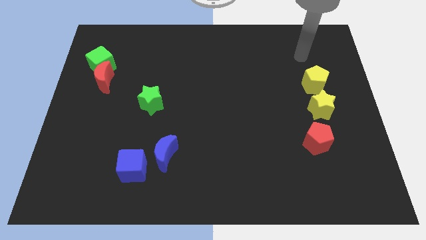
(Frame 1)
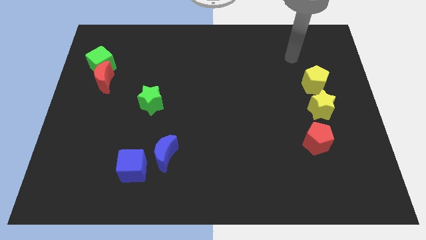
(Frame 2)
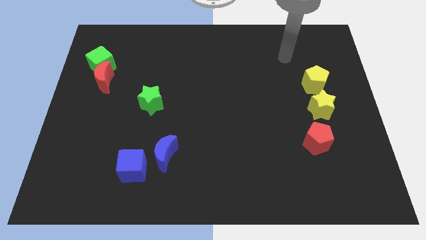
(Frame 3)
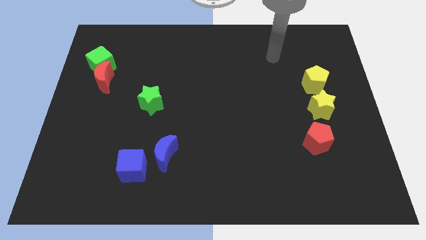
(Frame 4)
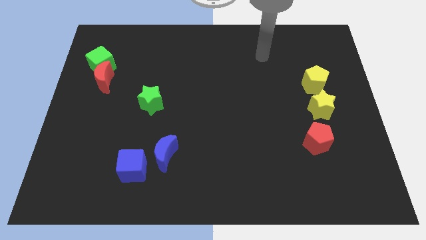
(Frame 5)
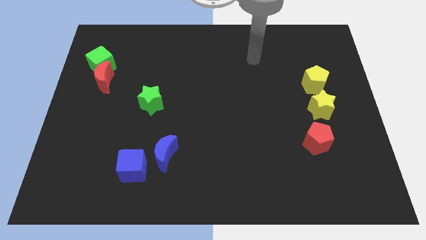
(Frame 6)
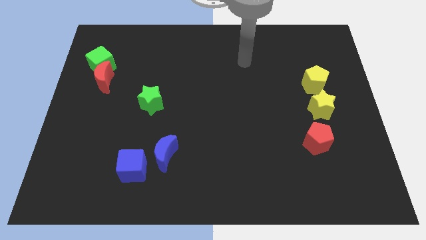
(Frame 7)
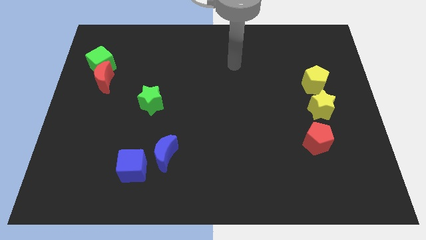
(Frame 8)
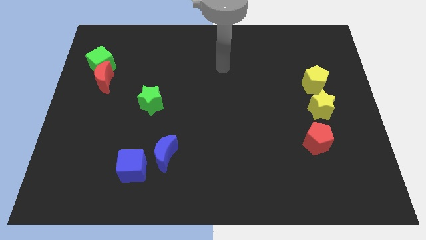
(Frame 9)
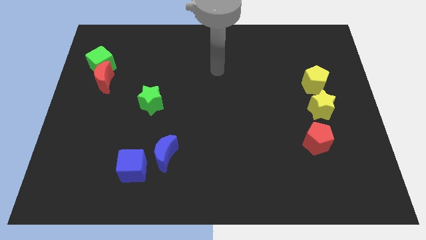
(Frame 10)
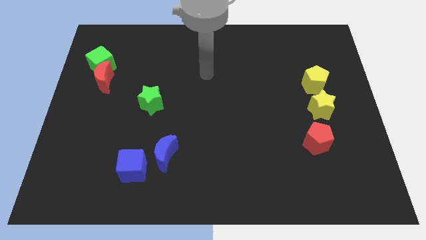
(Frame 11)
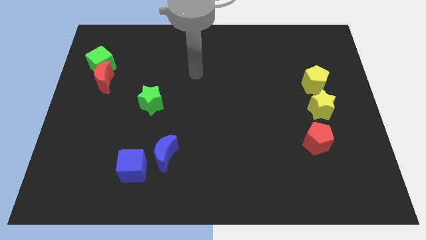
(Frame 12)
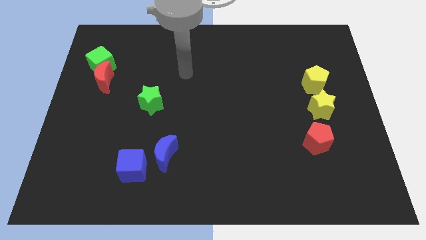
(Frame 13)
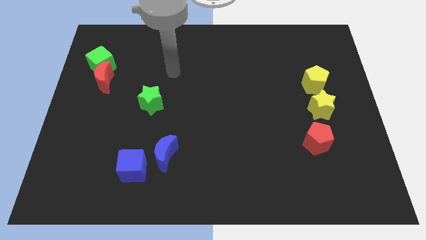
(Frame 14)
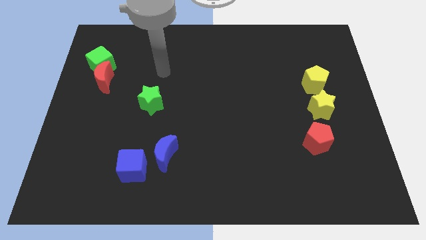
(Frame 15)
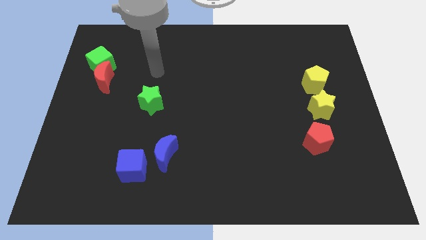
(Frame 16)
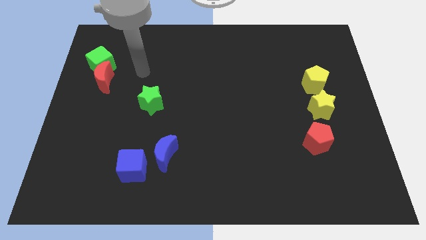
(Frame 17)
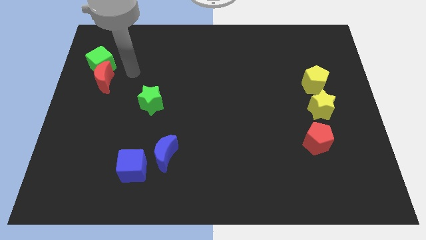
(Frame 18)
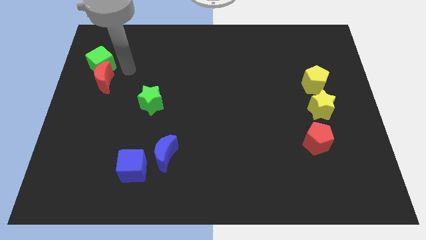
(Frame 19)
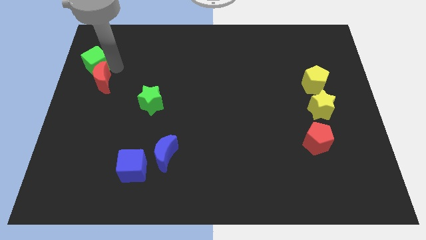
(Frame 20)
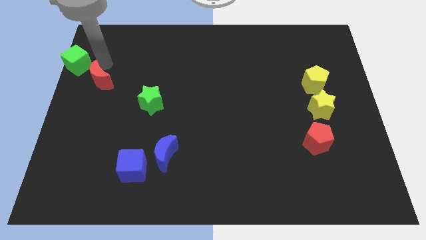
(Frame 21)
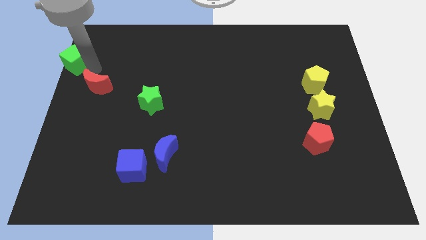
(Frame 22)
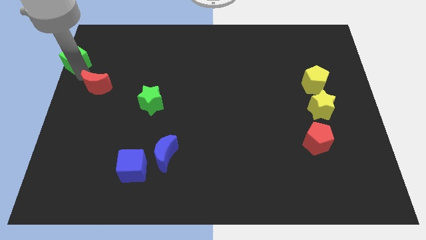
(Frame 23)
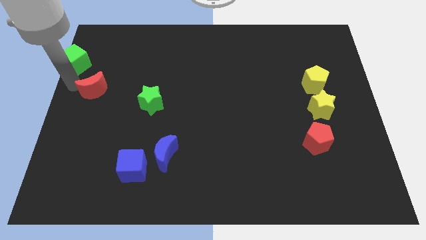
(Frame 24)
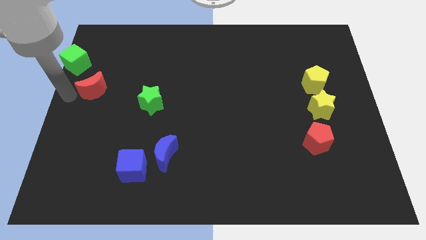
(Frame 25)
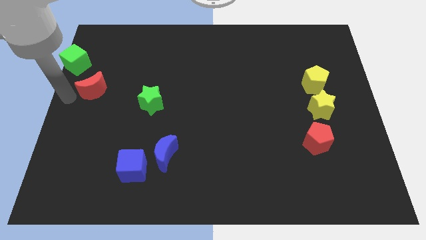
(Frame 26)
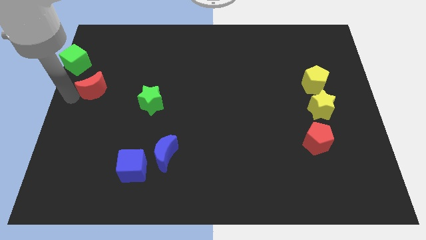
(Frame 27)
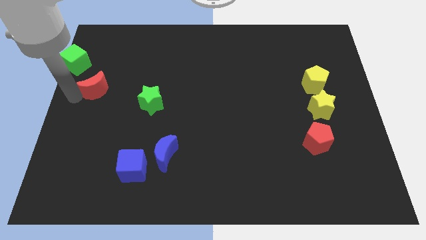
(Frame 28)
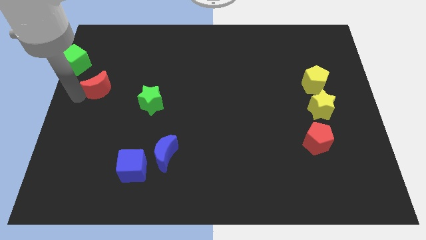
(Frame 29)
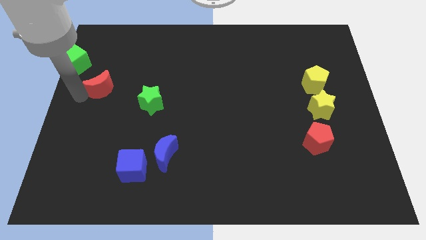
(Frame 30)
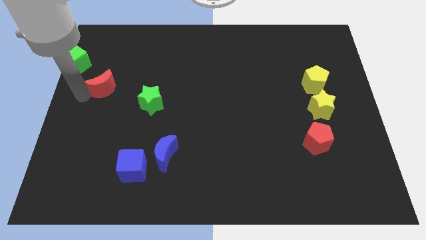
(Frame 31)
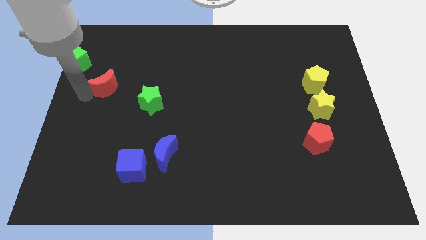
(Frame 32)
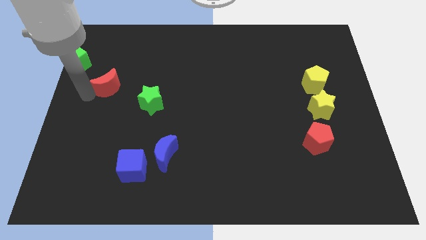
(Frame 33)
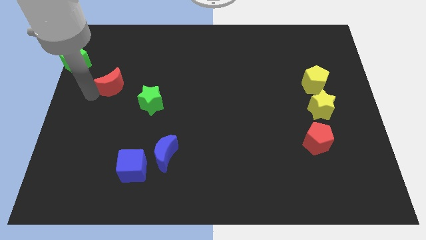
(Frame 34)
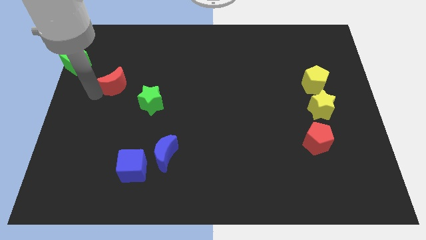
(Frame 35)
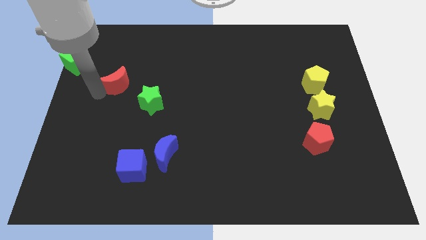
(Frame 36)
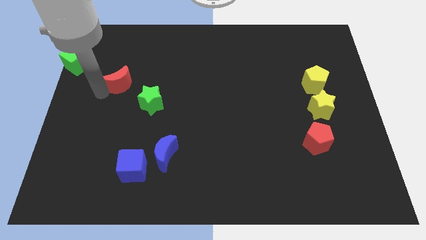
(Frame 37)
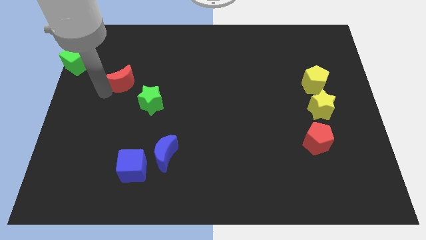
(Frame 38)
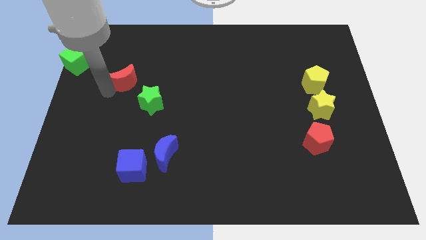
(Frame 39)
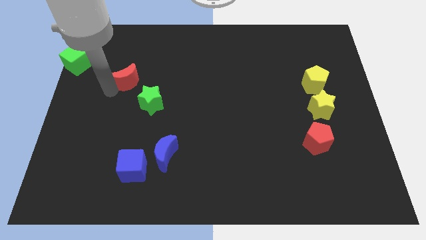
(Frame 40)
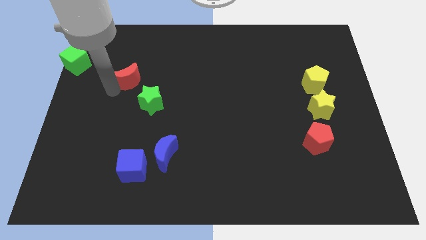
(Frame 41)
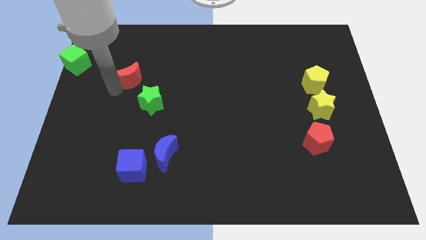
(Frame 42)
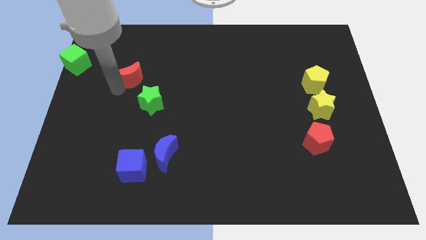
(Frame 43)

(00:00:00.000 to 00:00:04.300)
slide the red moon right somewhat

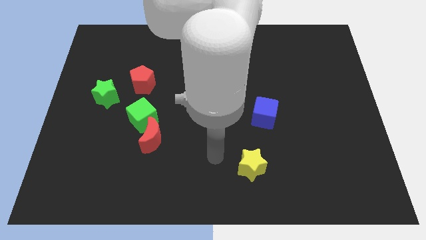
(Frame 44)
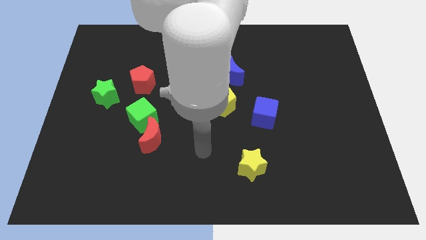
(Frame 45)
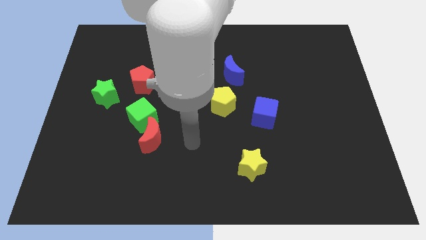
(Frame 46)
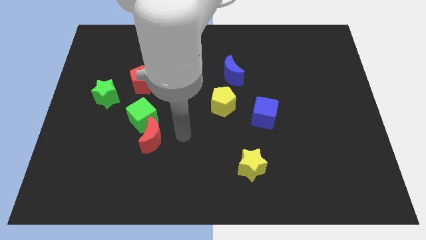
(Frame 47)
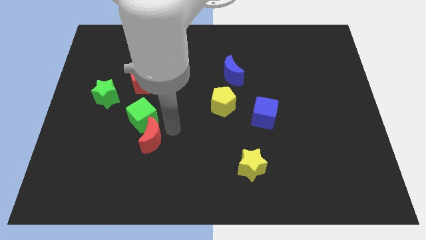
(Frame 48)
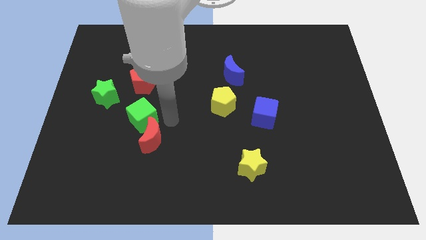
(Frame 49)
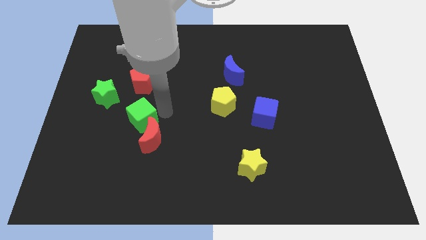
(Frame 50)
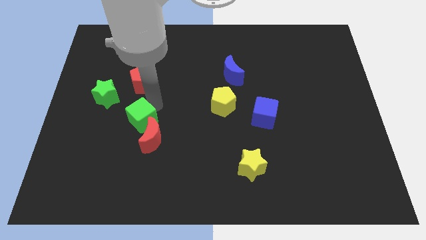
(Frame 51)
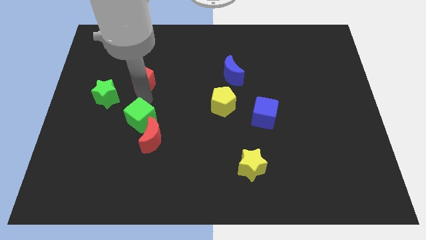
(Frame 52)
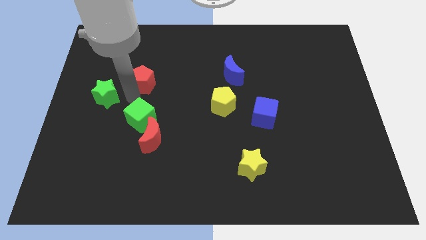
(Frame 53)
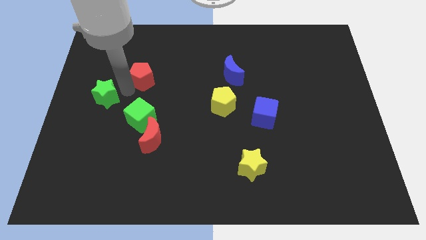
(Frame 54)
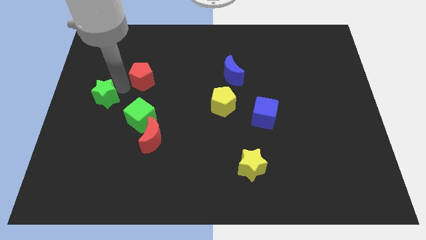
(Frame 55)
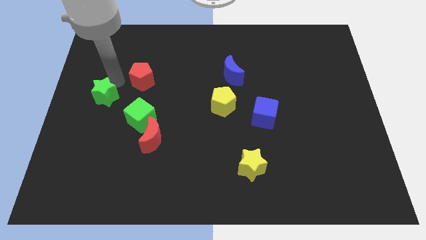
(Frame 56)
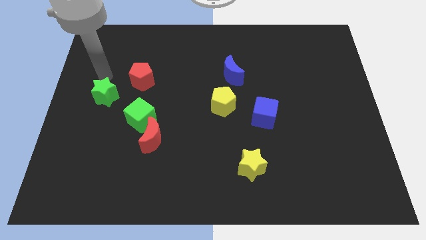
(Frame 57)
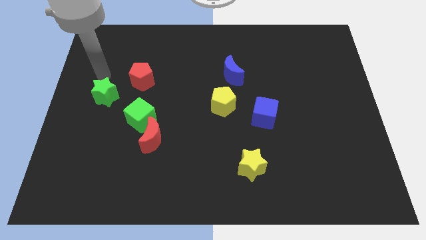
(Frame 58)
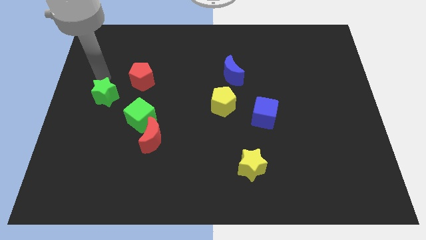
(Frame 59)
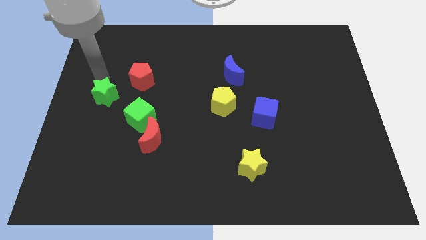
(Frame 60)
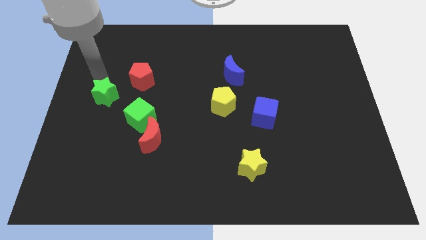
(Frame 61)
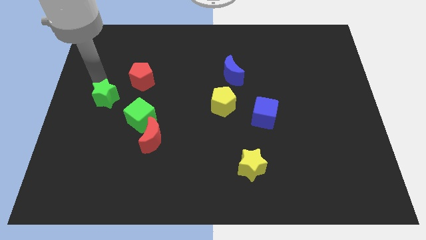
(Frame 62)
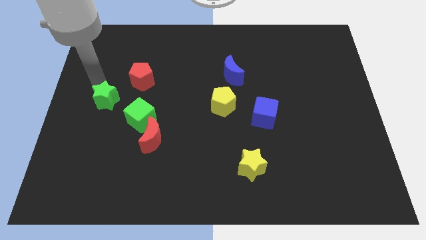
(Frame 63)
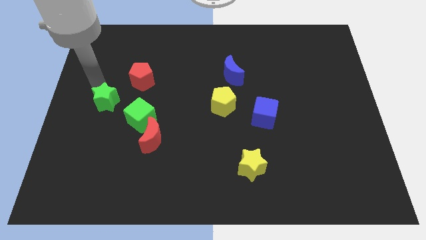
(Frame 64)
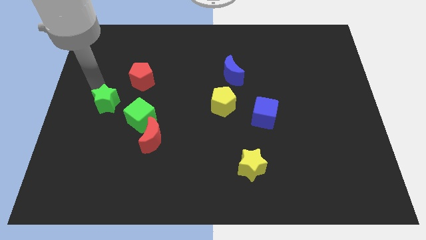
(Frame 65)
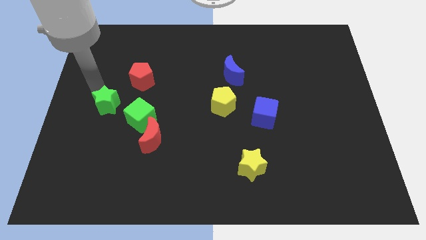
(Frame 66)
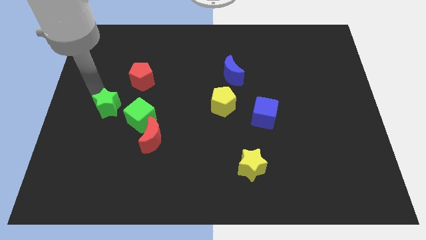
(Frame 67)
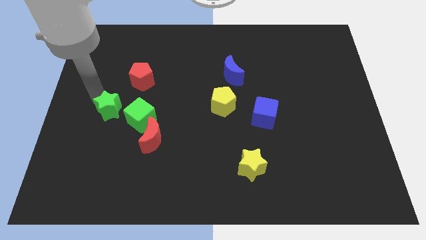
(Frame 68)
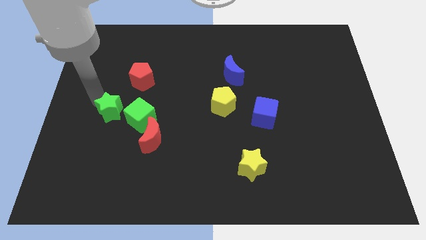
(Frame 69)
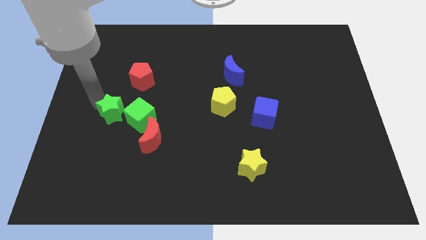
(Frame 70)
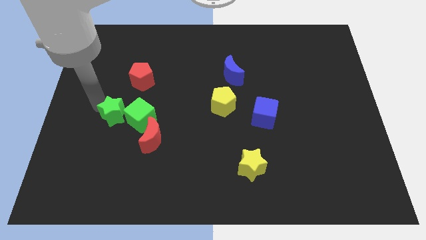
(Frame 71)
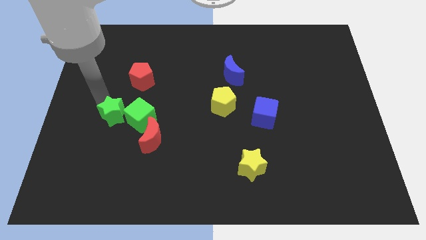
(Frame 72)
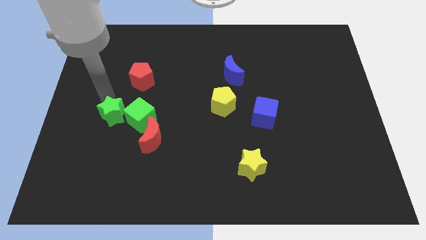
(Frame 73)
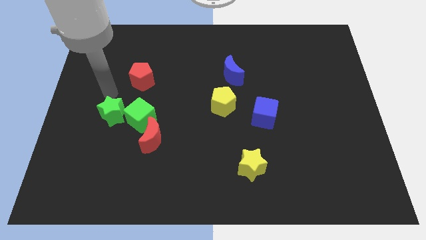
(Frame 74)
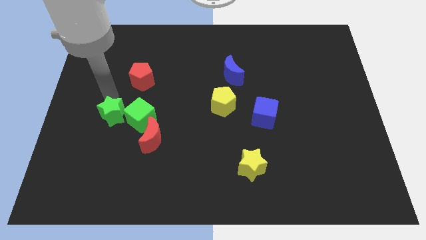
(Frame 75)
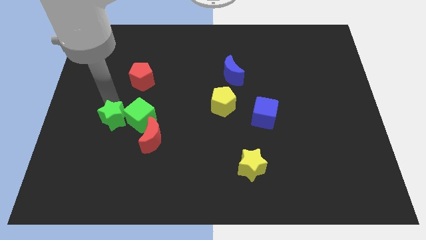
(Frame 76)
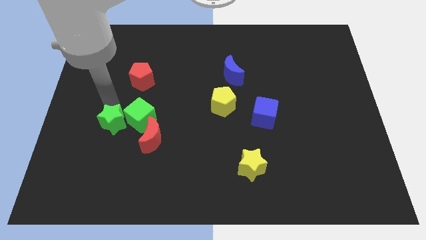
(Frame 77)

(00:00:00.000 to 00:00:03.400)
slide the green star a little down
